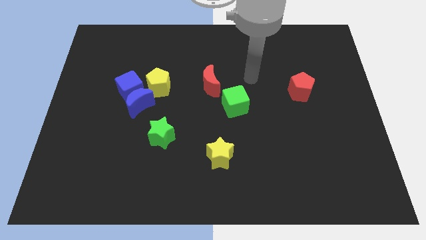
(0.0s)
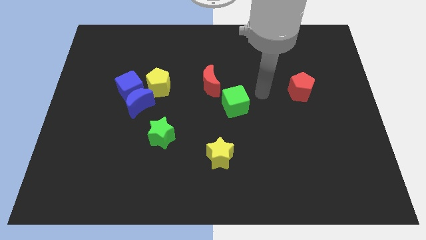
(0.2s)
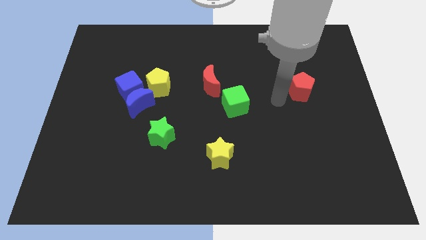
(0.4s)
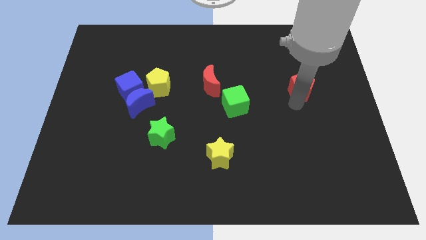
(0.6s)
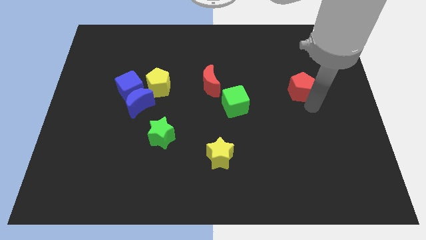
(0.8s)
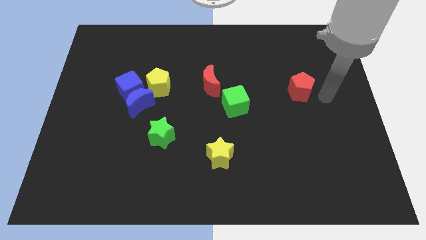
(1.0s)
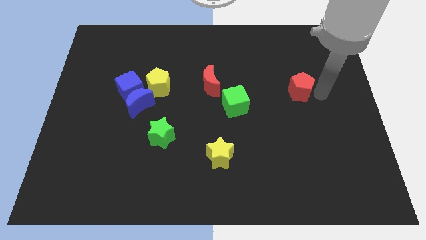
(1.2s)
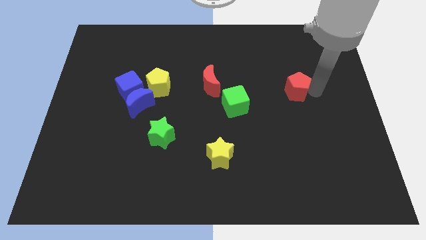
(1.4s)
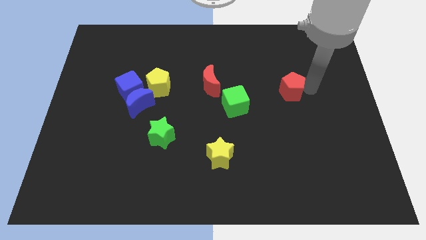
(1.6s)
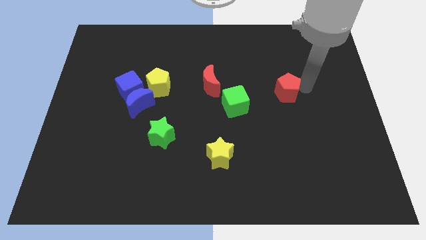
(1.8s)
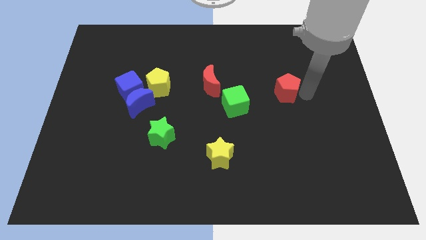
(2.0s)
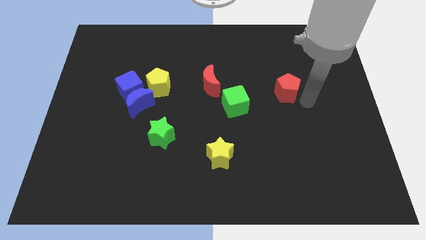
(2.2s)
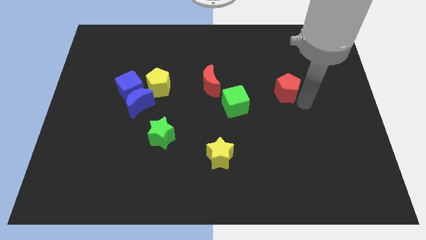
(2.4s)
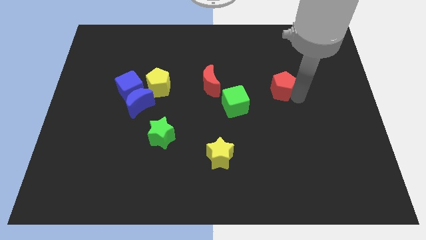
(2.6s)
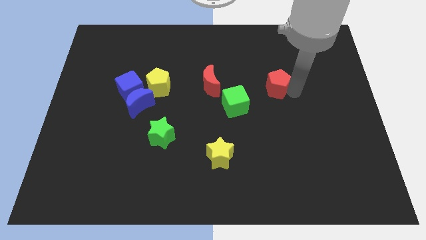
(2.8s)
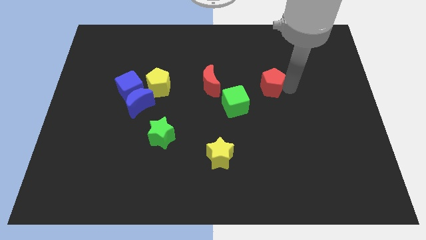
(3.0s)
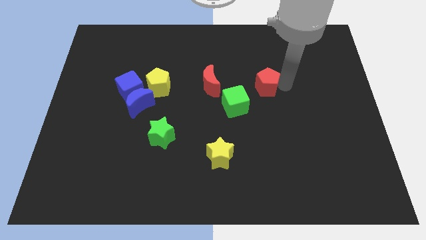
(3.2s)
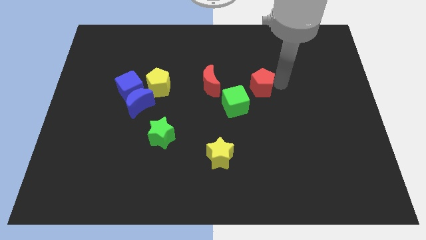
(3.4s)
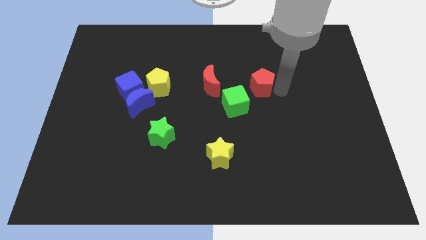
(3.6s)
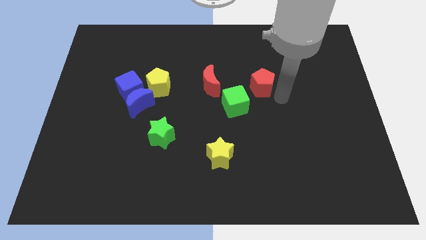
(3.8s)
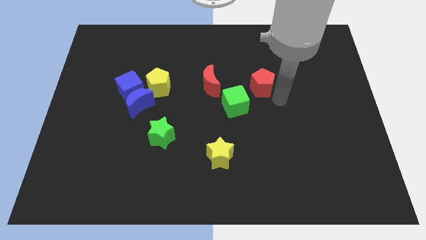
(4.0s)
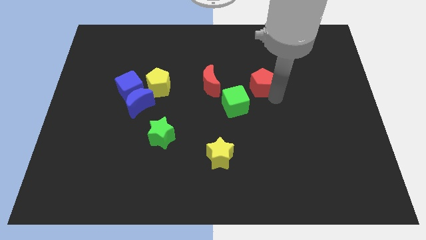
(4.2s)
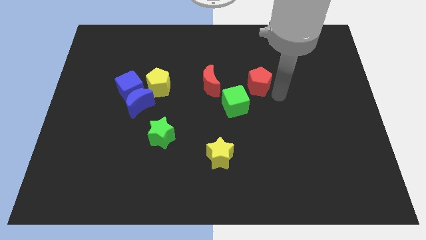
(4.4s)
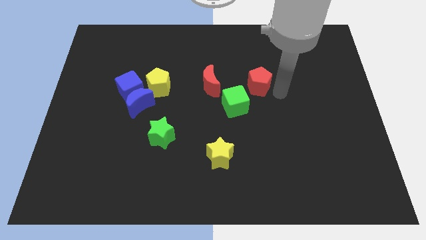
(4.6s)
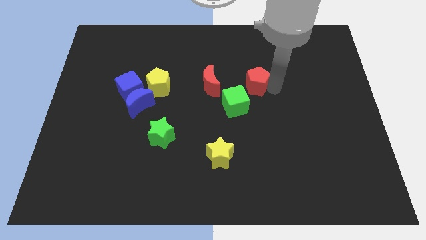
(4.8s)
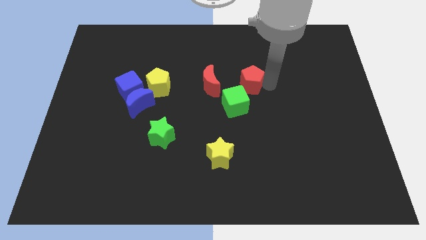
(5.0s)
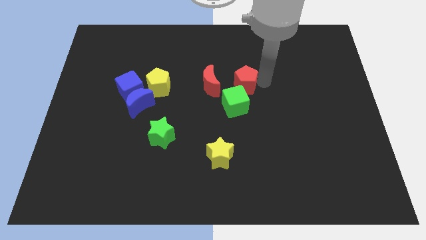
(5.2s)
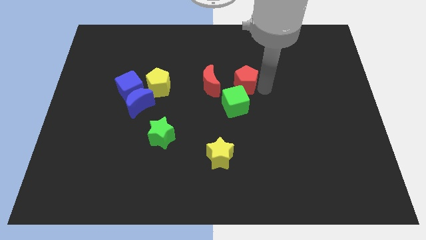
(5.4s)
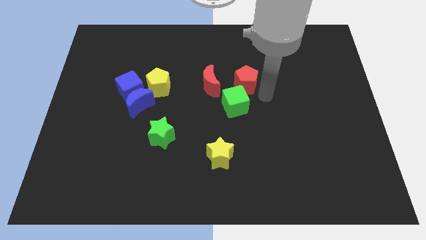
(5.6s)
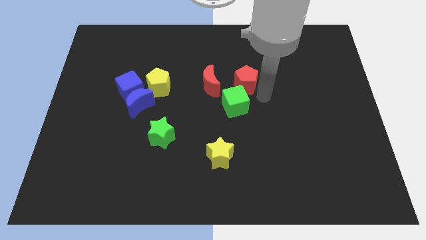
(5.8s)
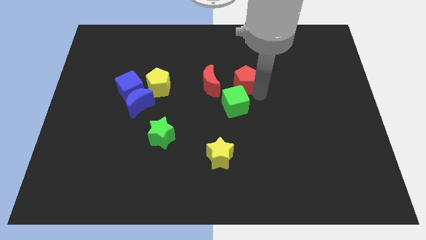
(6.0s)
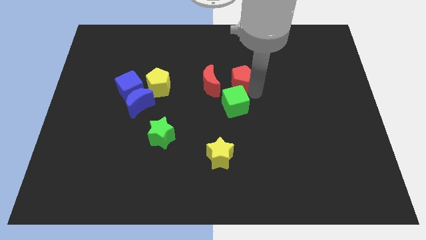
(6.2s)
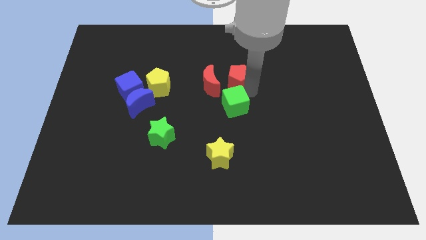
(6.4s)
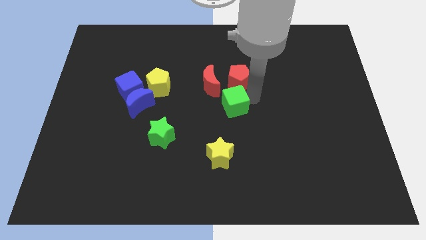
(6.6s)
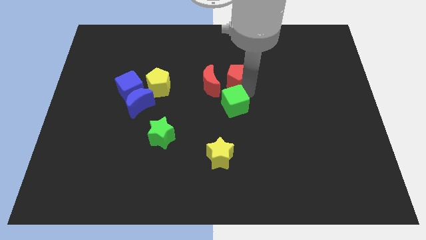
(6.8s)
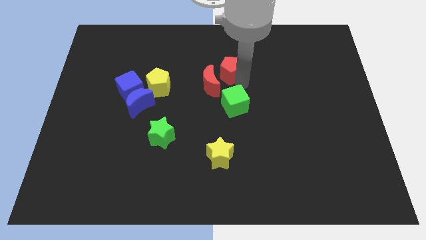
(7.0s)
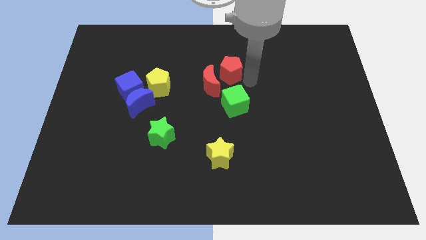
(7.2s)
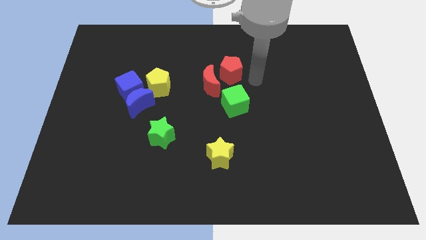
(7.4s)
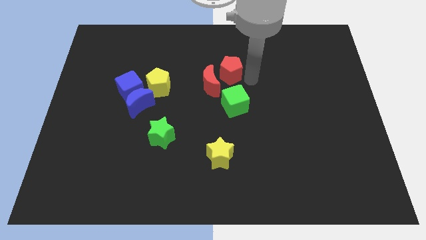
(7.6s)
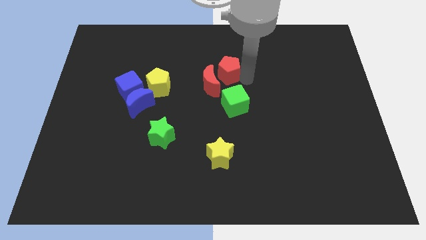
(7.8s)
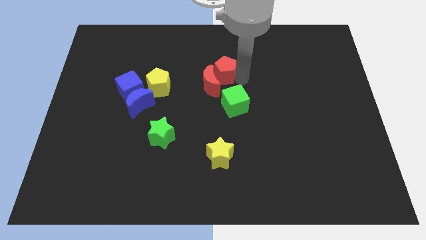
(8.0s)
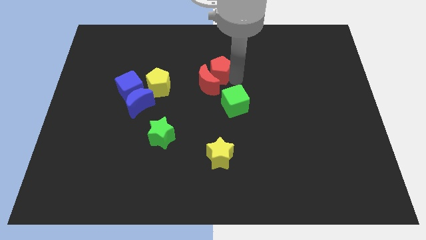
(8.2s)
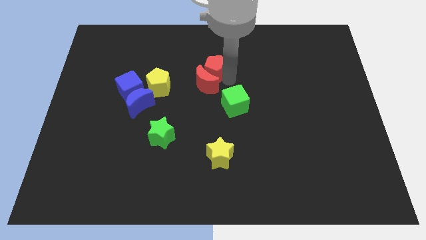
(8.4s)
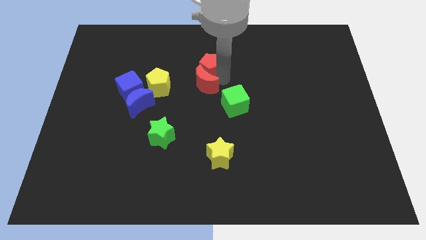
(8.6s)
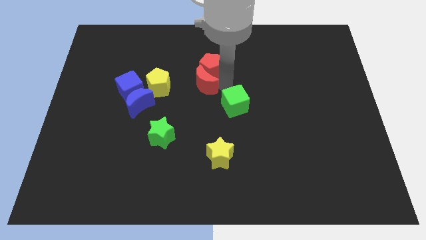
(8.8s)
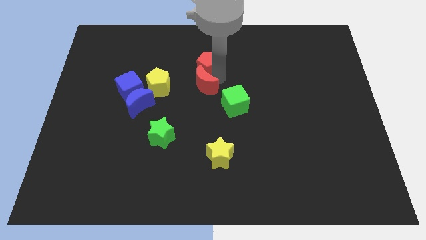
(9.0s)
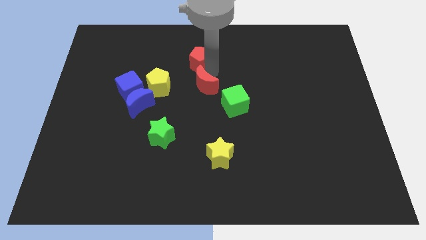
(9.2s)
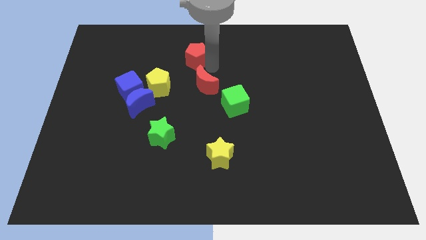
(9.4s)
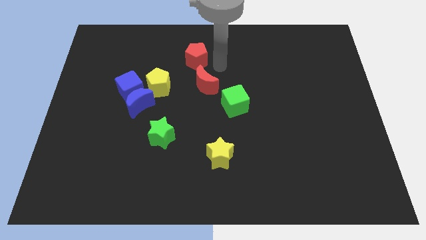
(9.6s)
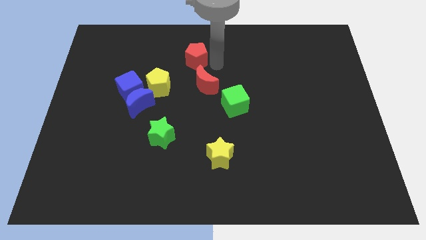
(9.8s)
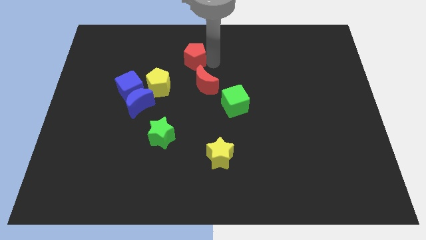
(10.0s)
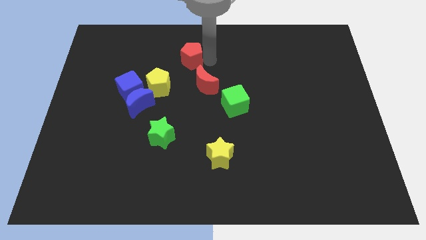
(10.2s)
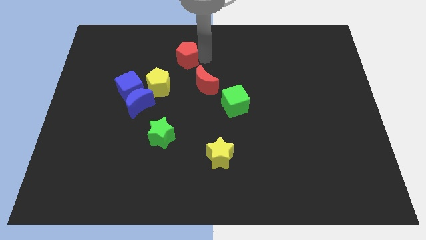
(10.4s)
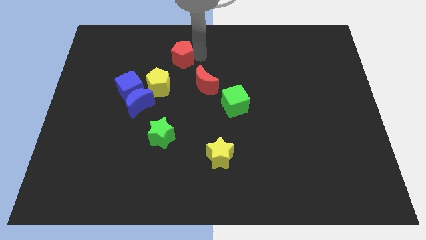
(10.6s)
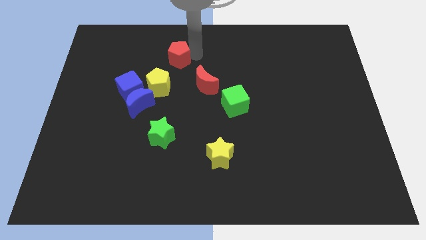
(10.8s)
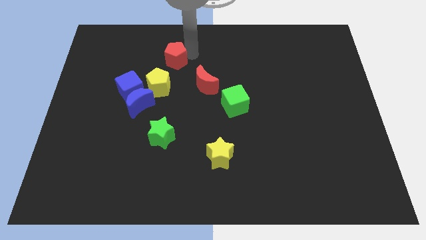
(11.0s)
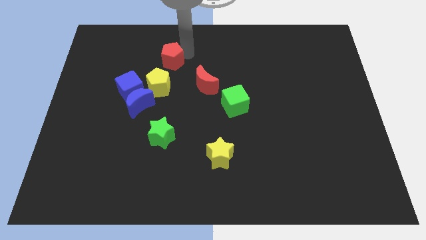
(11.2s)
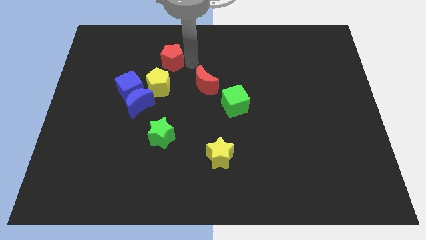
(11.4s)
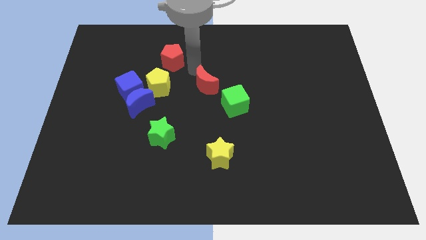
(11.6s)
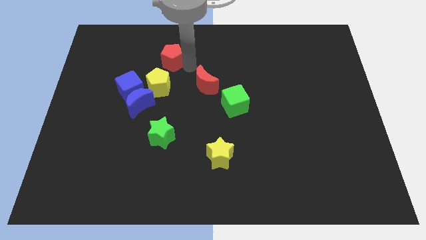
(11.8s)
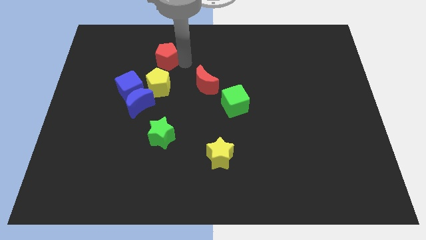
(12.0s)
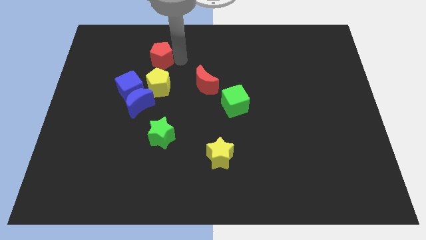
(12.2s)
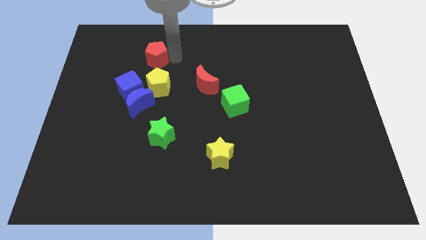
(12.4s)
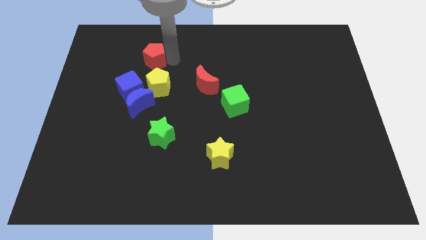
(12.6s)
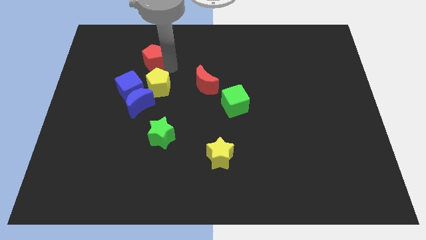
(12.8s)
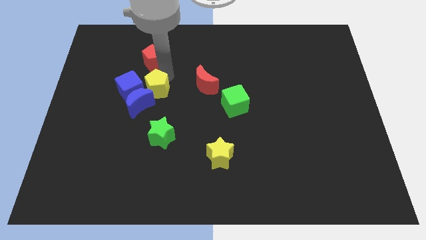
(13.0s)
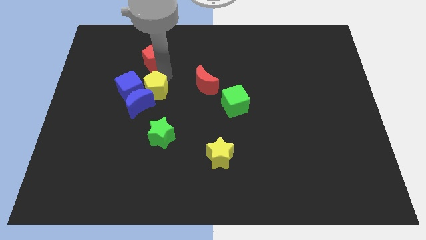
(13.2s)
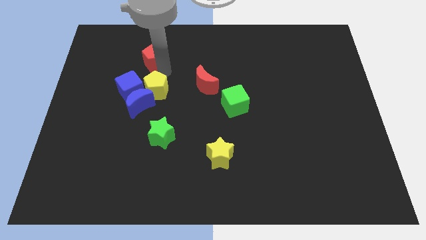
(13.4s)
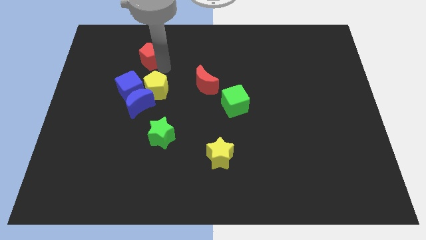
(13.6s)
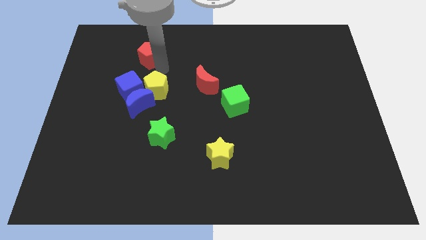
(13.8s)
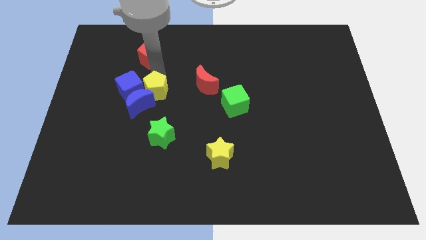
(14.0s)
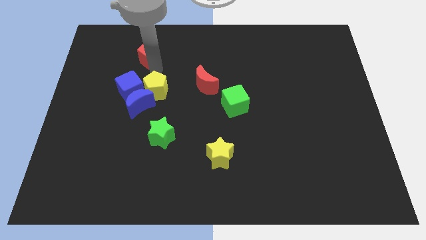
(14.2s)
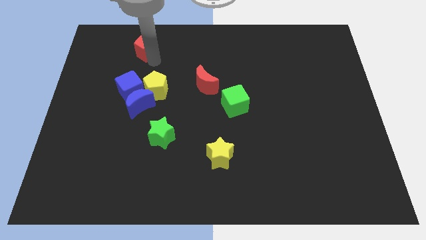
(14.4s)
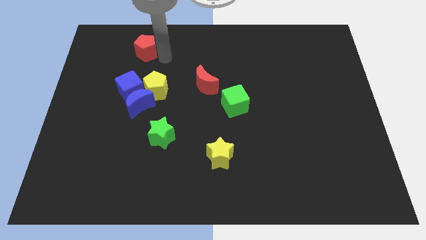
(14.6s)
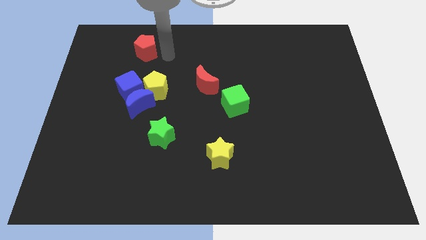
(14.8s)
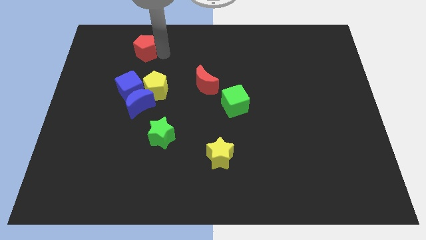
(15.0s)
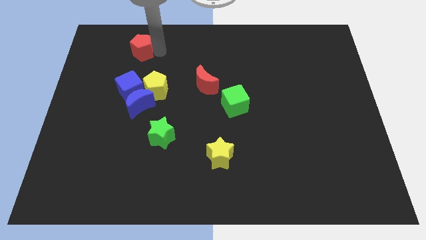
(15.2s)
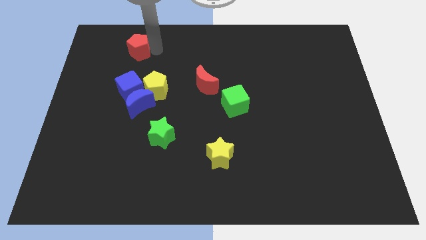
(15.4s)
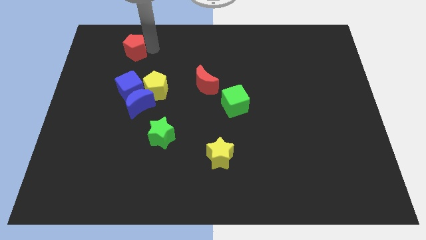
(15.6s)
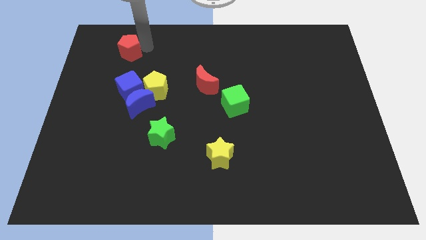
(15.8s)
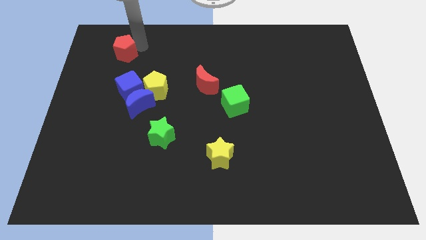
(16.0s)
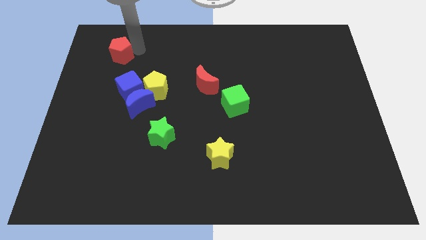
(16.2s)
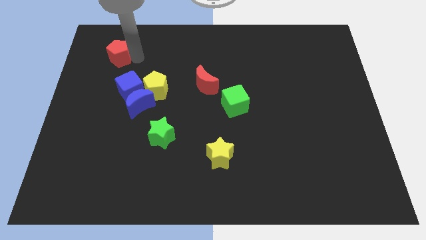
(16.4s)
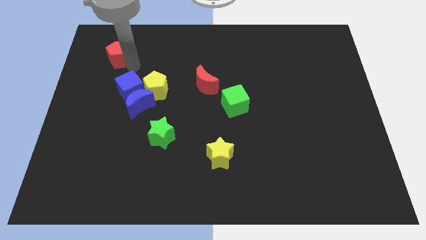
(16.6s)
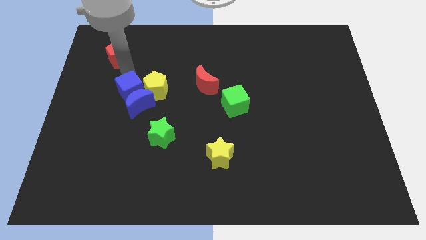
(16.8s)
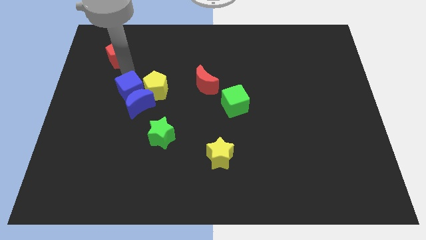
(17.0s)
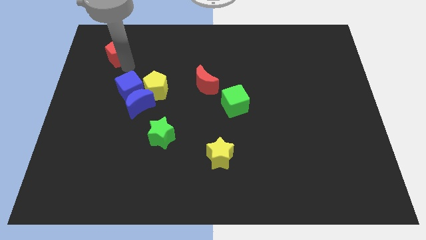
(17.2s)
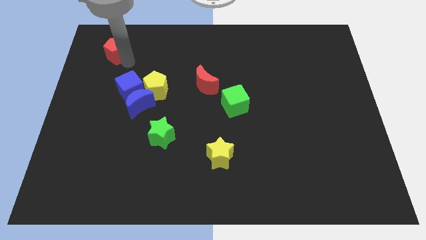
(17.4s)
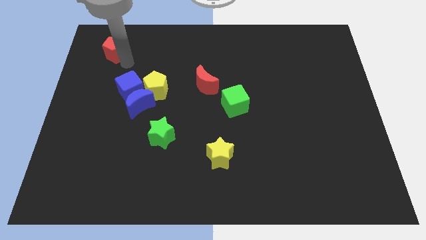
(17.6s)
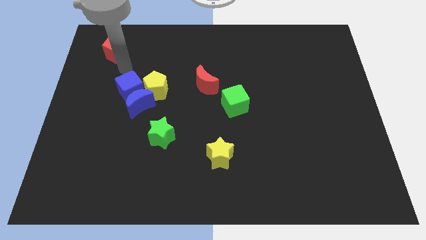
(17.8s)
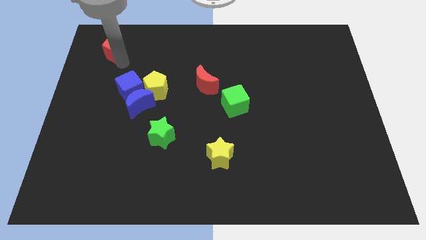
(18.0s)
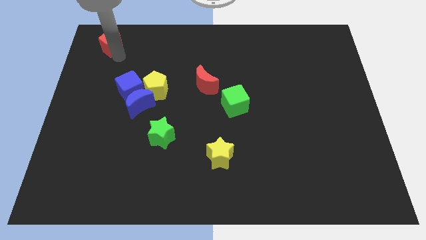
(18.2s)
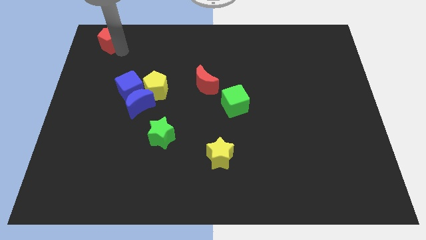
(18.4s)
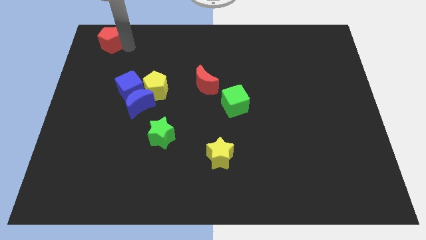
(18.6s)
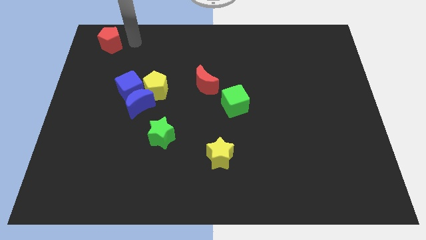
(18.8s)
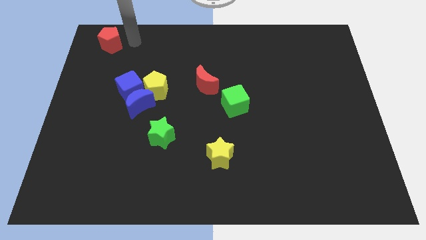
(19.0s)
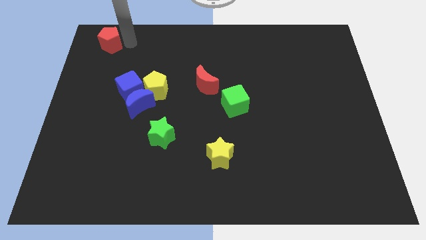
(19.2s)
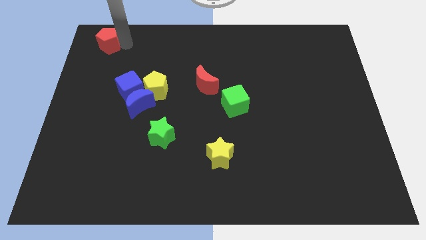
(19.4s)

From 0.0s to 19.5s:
push the red pentagon to the upper left corner
